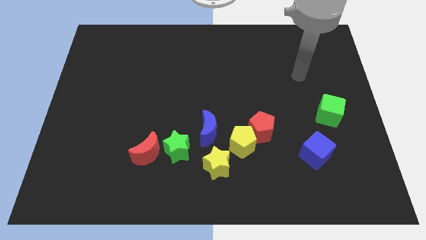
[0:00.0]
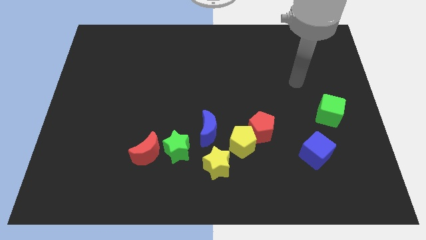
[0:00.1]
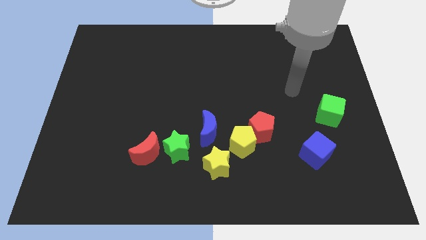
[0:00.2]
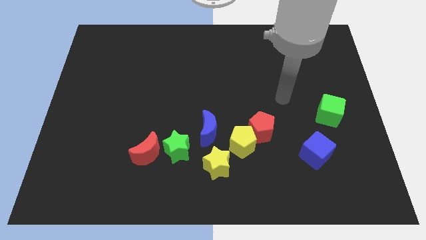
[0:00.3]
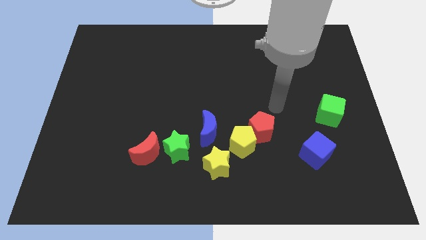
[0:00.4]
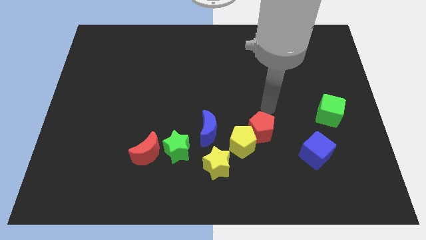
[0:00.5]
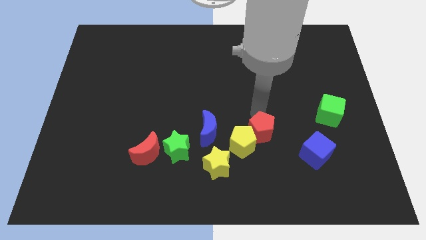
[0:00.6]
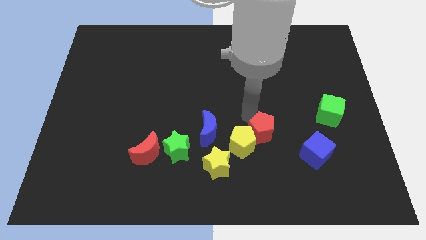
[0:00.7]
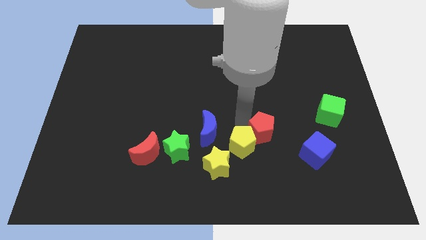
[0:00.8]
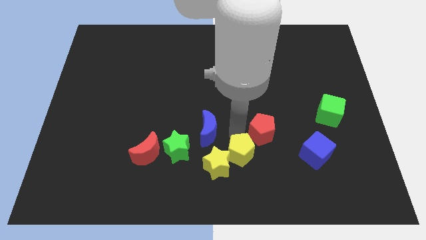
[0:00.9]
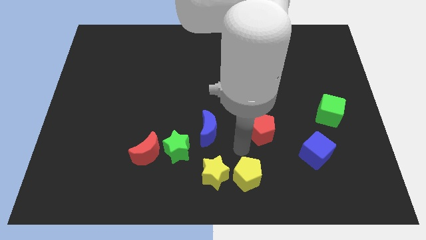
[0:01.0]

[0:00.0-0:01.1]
separate the red pentagon from the yellow pentagon

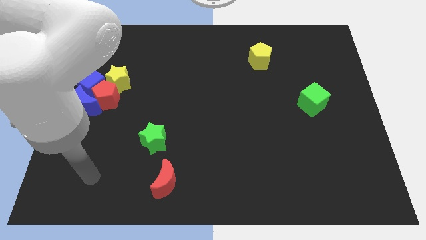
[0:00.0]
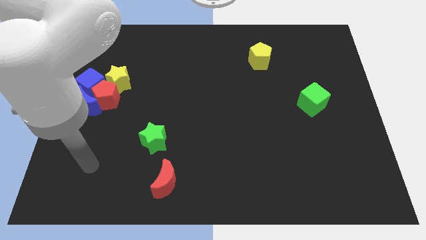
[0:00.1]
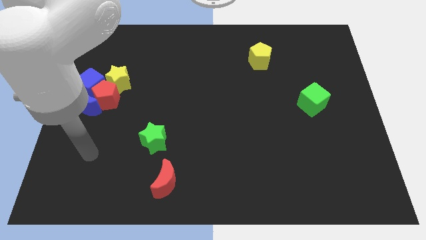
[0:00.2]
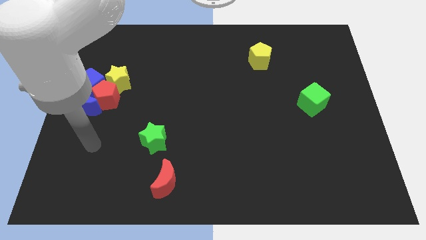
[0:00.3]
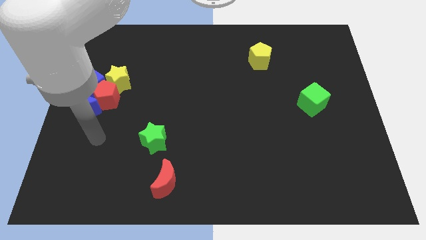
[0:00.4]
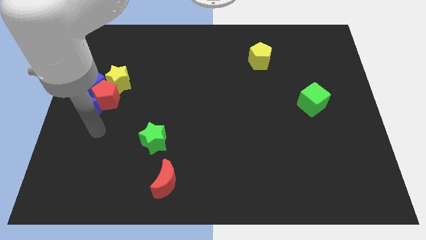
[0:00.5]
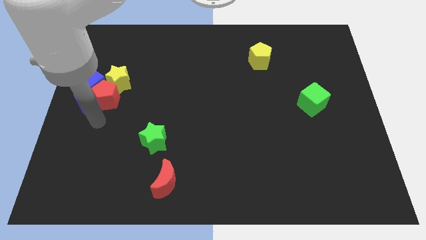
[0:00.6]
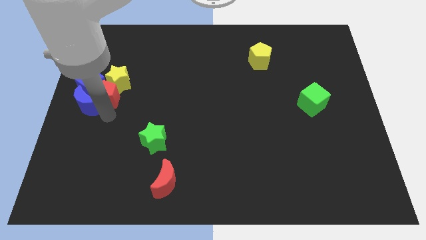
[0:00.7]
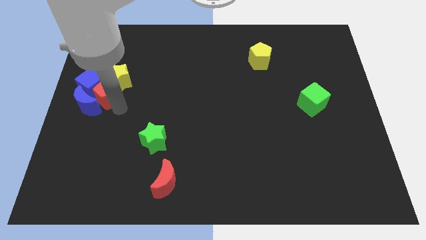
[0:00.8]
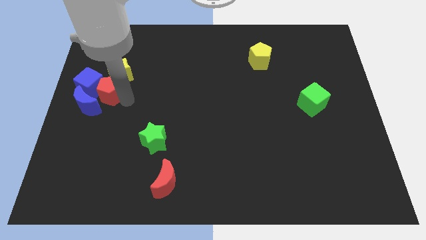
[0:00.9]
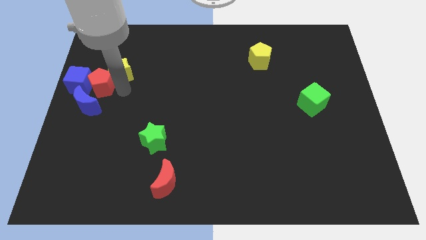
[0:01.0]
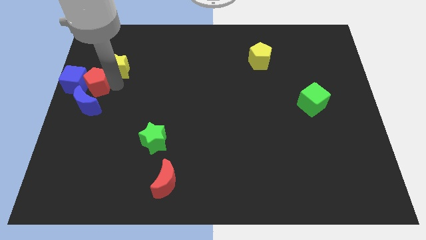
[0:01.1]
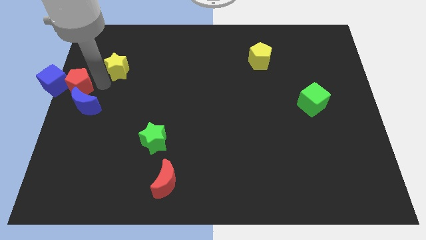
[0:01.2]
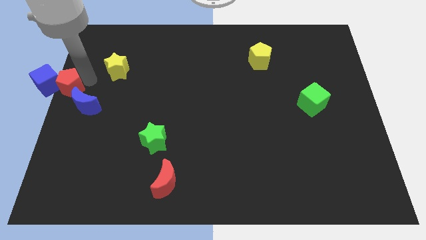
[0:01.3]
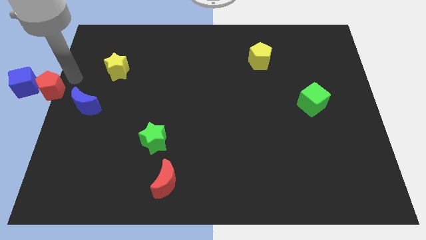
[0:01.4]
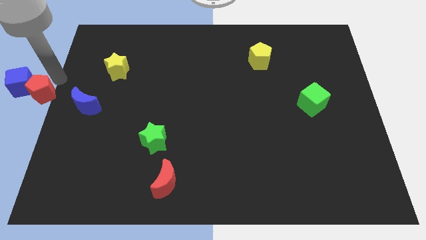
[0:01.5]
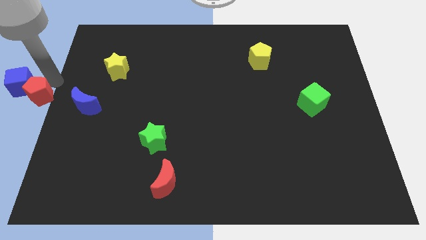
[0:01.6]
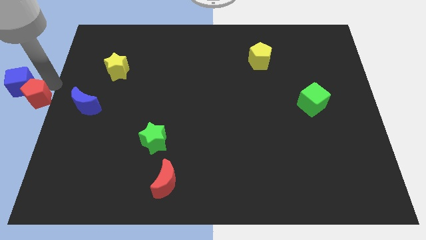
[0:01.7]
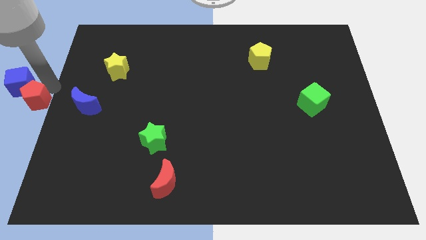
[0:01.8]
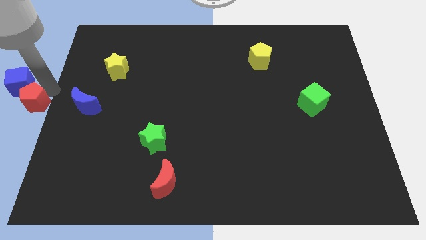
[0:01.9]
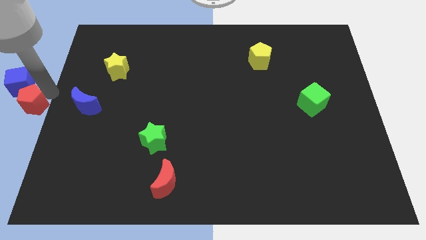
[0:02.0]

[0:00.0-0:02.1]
move the red pentagon away from the blue moon, yellow star, and blue cube

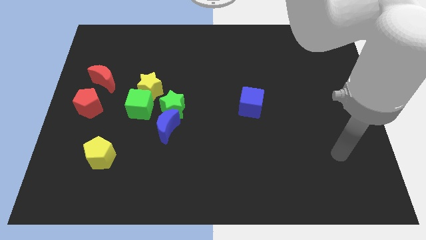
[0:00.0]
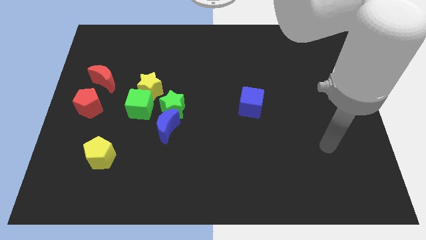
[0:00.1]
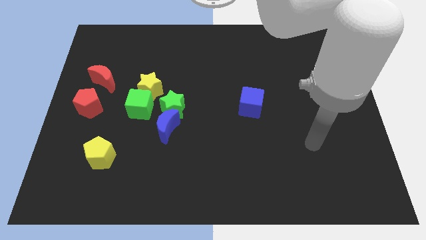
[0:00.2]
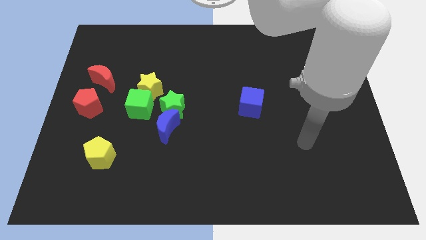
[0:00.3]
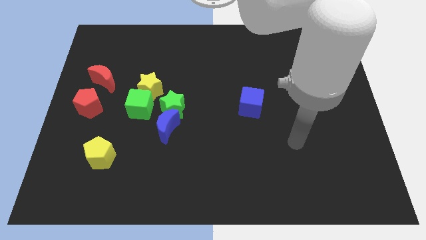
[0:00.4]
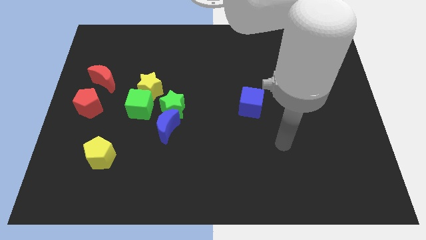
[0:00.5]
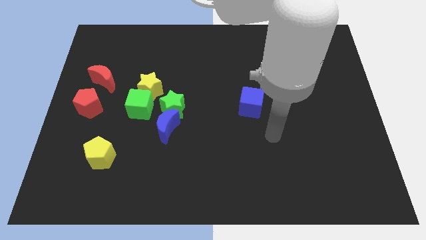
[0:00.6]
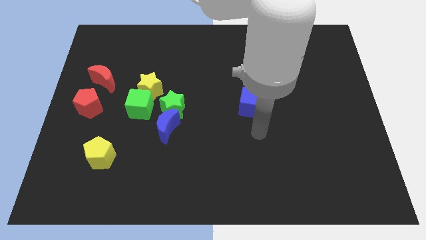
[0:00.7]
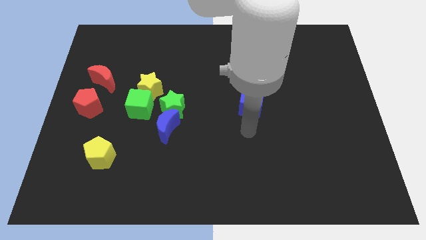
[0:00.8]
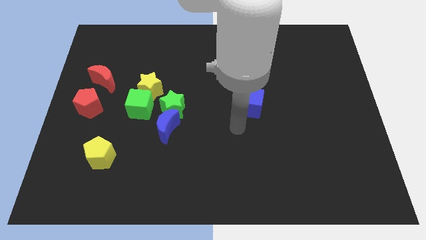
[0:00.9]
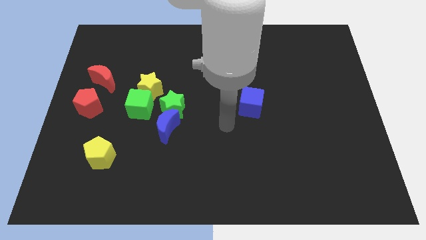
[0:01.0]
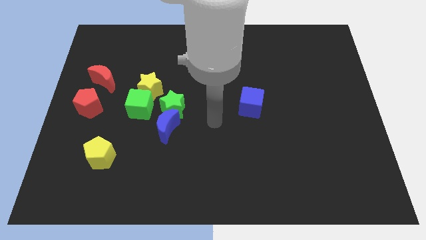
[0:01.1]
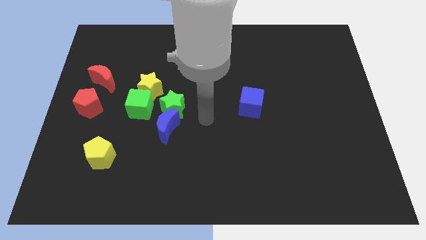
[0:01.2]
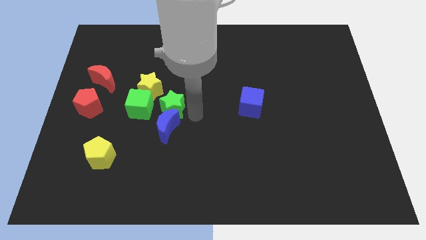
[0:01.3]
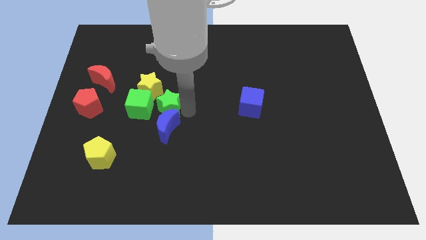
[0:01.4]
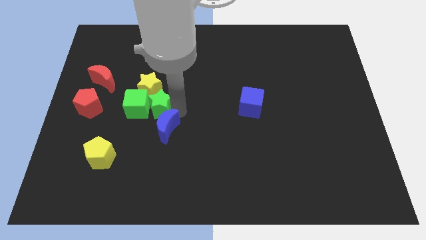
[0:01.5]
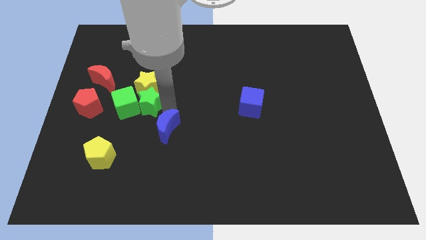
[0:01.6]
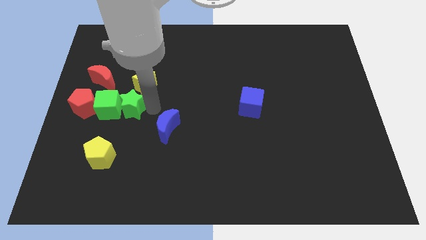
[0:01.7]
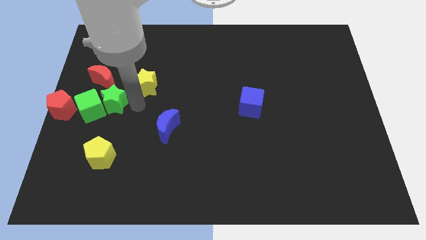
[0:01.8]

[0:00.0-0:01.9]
move the yellow star away from the green cube and green star

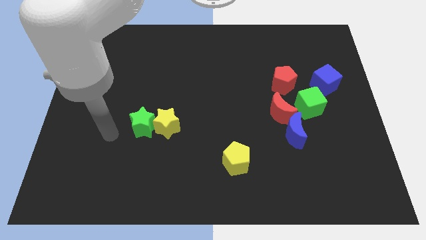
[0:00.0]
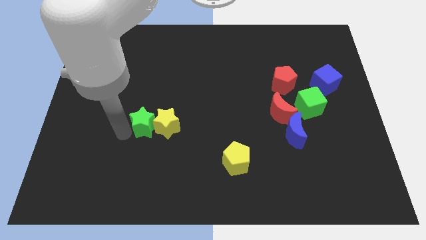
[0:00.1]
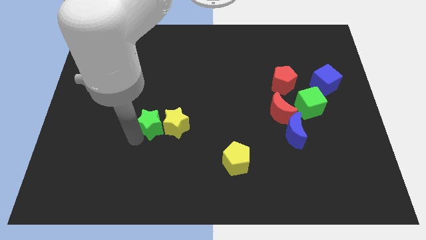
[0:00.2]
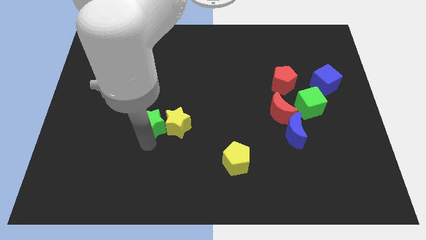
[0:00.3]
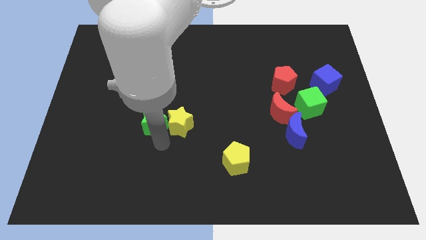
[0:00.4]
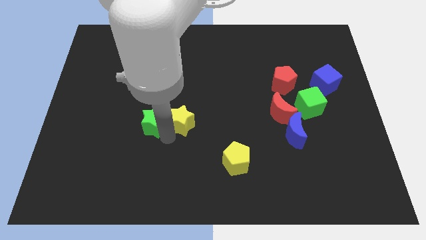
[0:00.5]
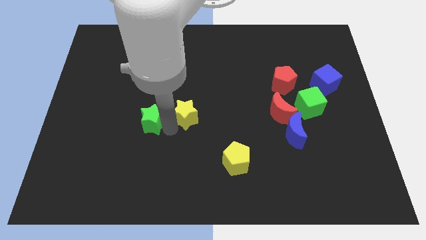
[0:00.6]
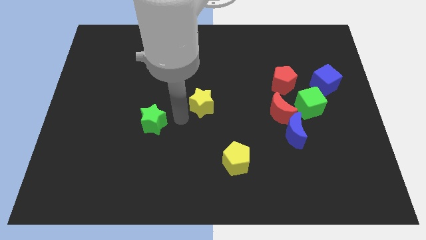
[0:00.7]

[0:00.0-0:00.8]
separate the green star from the yellow star

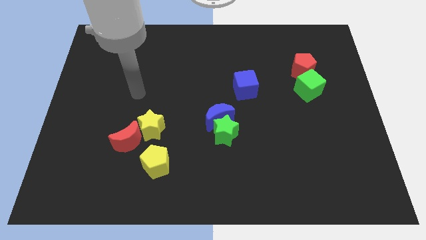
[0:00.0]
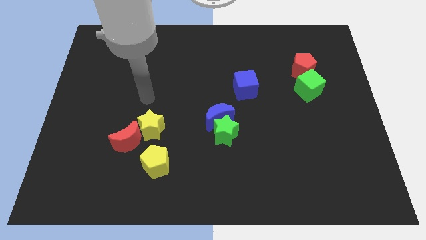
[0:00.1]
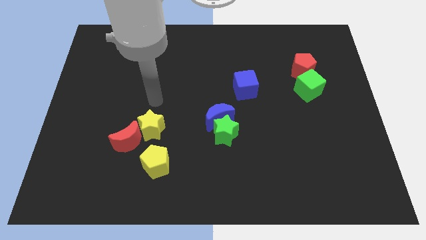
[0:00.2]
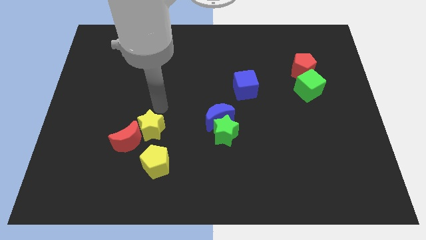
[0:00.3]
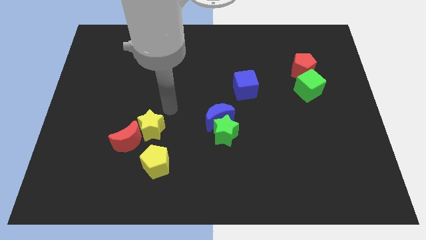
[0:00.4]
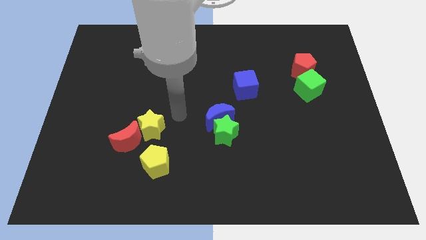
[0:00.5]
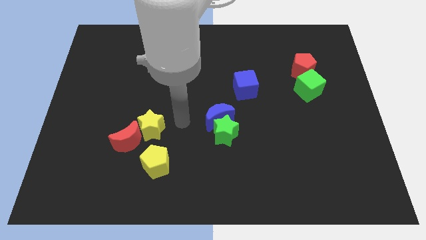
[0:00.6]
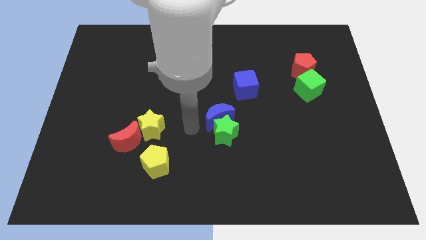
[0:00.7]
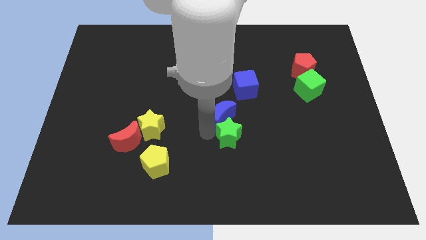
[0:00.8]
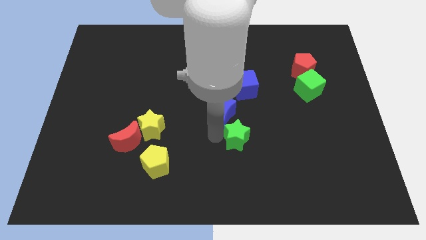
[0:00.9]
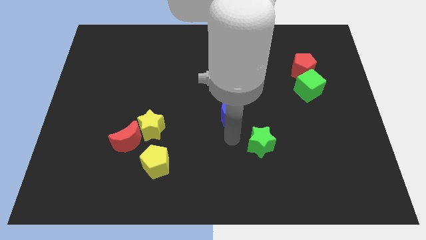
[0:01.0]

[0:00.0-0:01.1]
move the blue moon away from the green star

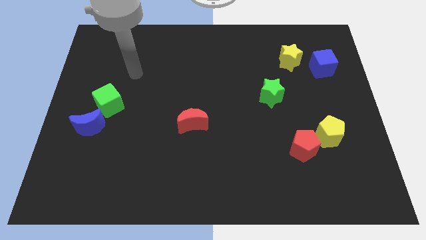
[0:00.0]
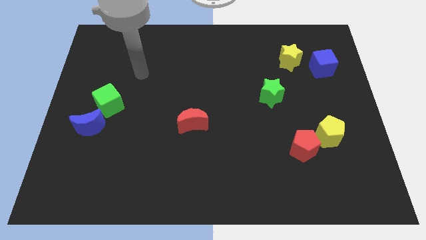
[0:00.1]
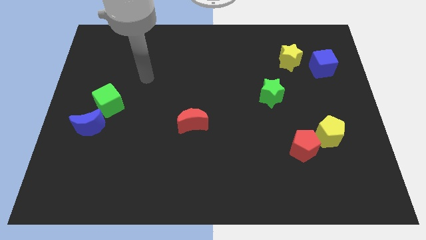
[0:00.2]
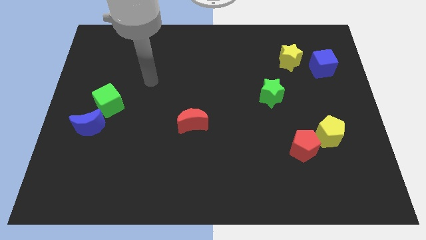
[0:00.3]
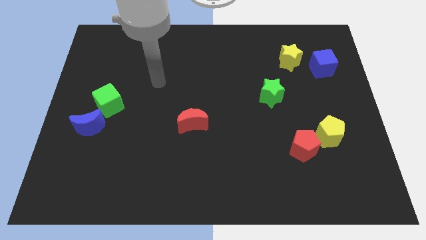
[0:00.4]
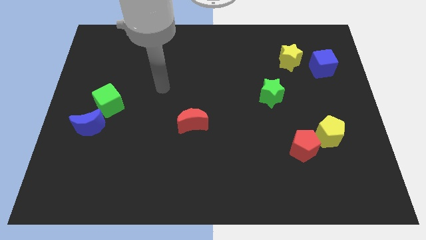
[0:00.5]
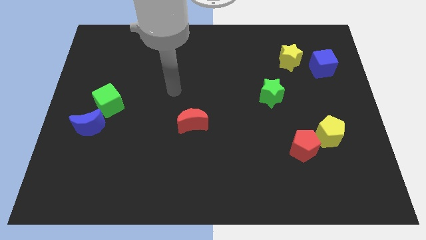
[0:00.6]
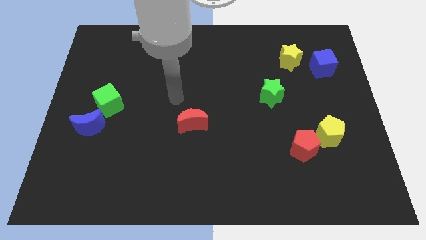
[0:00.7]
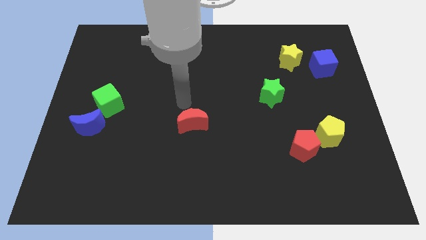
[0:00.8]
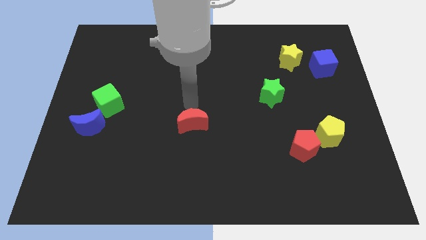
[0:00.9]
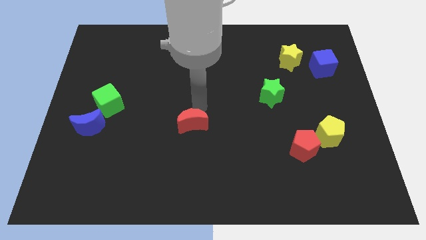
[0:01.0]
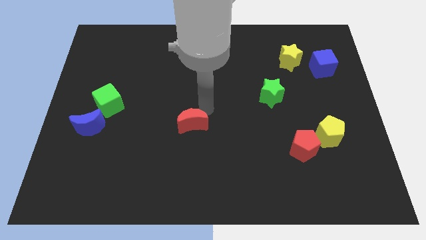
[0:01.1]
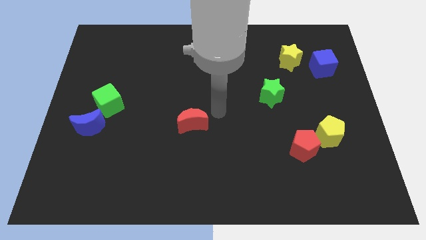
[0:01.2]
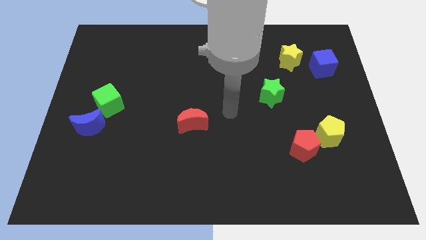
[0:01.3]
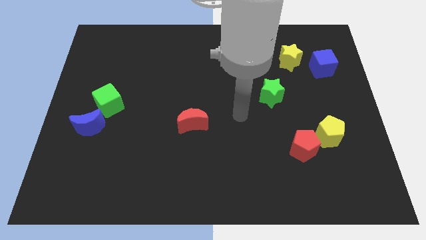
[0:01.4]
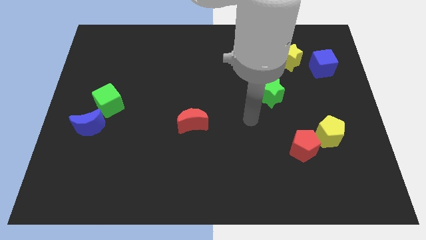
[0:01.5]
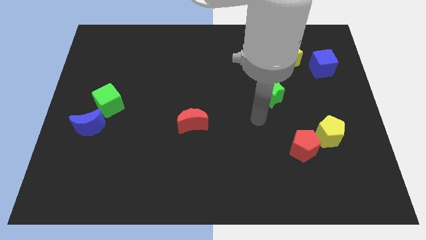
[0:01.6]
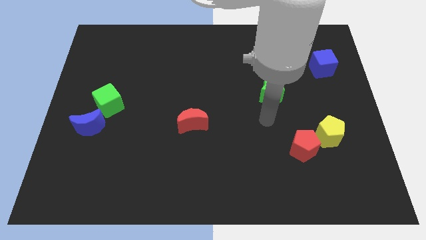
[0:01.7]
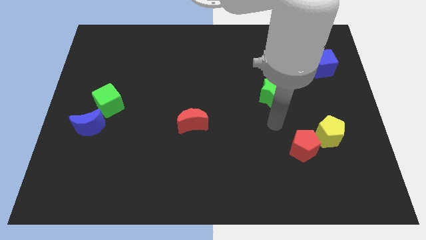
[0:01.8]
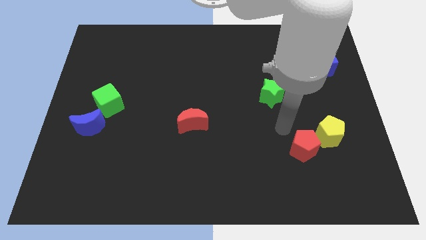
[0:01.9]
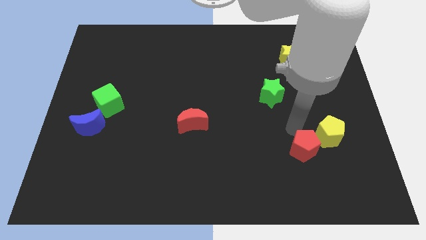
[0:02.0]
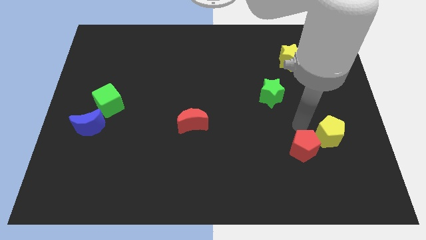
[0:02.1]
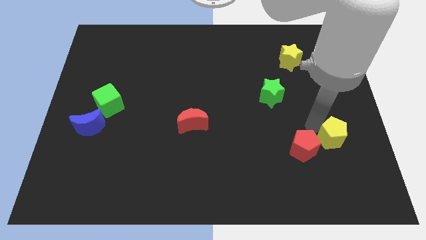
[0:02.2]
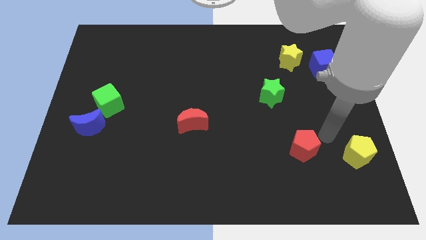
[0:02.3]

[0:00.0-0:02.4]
move the red pentagon away from the yellow pentagon
